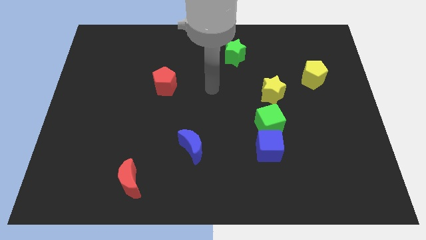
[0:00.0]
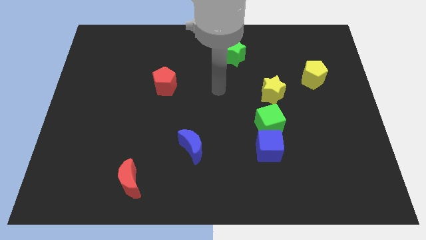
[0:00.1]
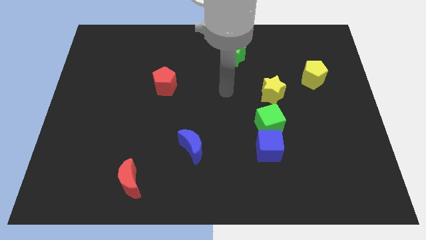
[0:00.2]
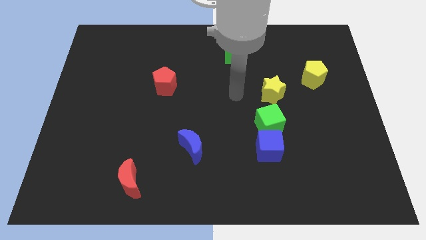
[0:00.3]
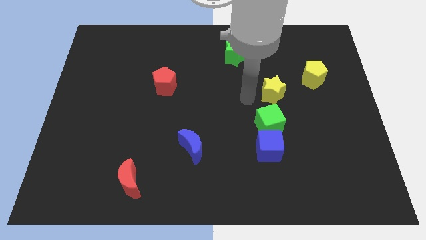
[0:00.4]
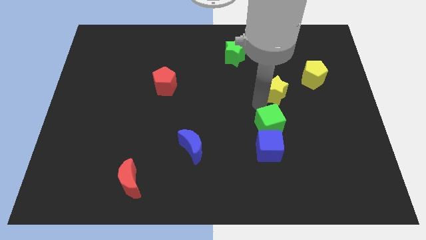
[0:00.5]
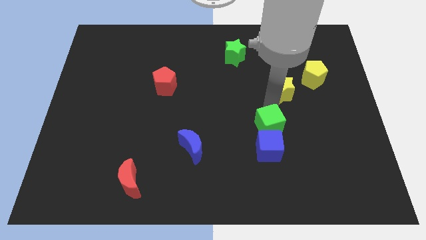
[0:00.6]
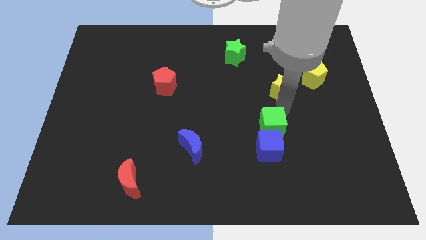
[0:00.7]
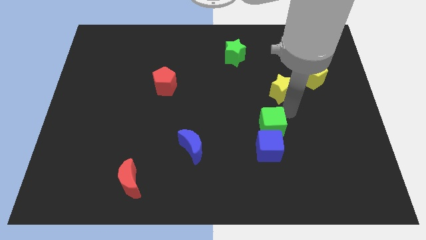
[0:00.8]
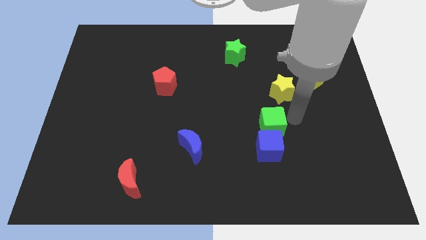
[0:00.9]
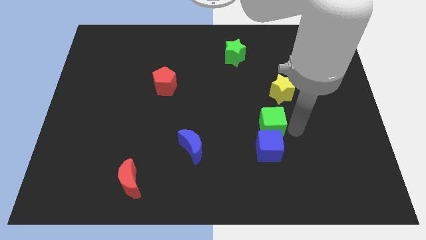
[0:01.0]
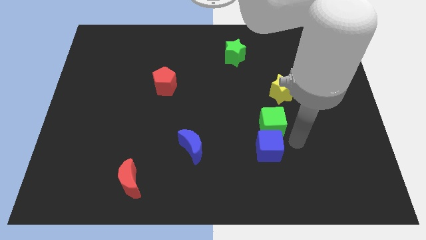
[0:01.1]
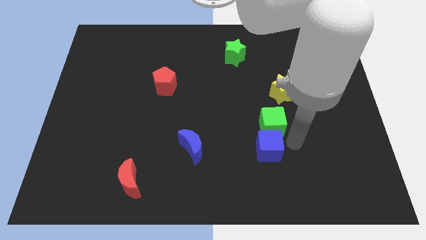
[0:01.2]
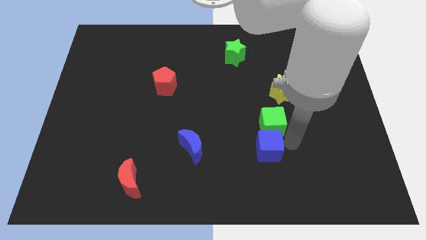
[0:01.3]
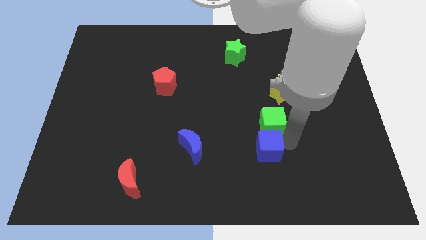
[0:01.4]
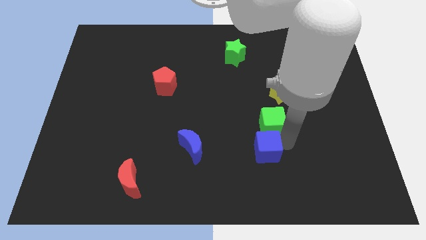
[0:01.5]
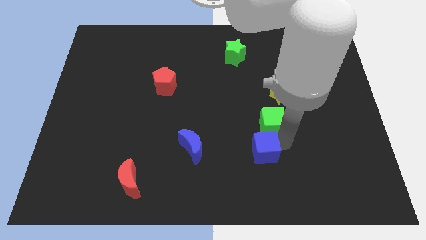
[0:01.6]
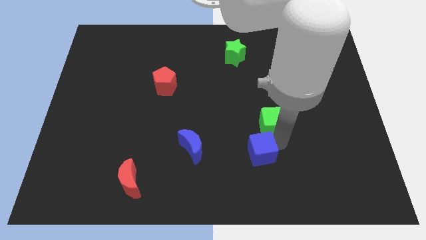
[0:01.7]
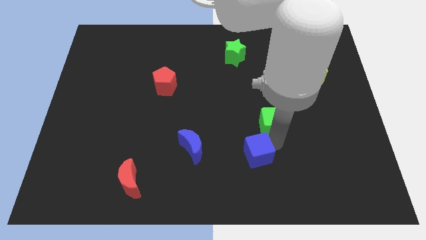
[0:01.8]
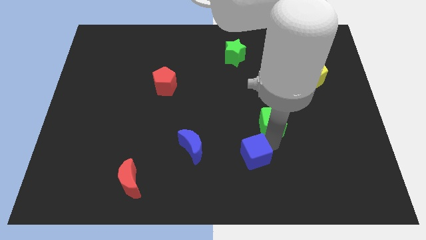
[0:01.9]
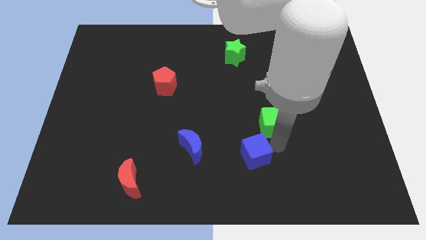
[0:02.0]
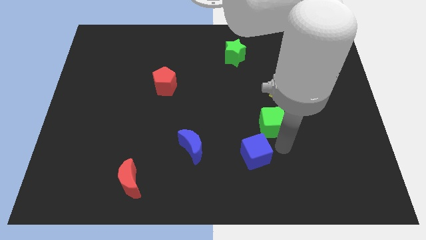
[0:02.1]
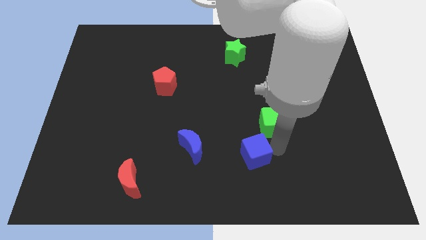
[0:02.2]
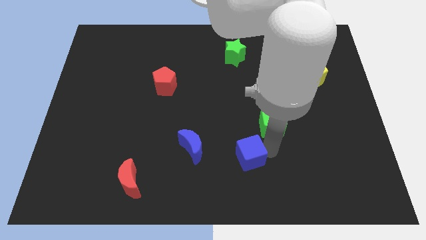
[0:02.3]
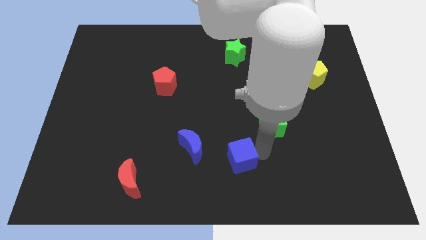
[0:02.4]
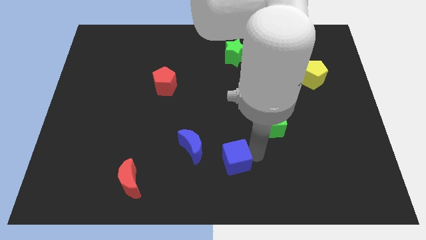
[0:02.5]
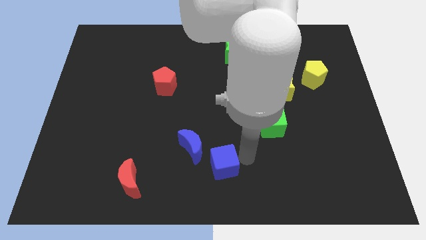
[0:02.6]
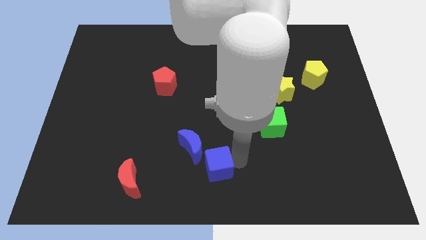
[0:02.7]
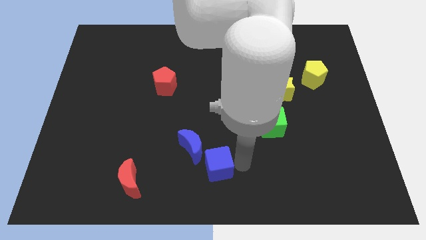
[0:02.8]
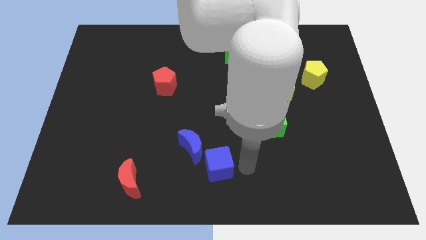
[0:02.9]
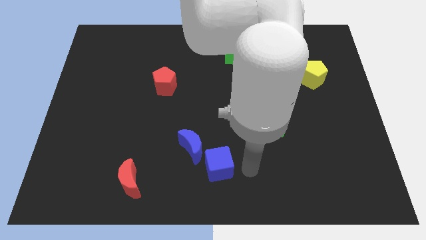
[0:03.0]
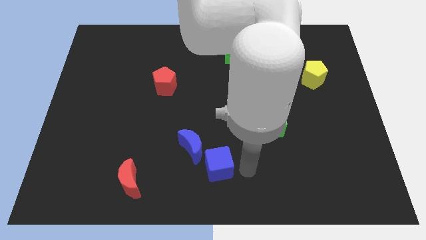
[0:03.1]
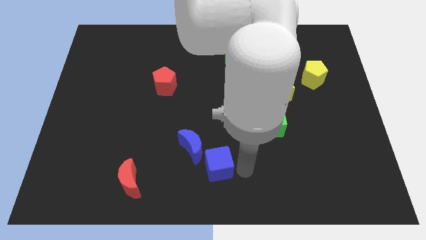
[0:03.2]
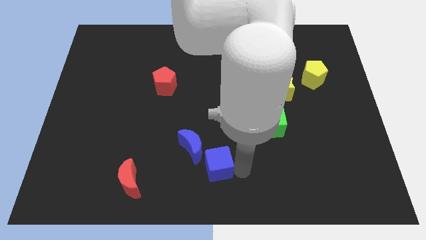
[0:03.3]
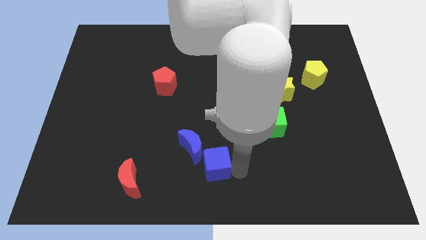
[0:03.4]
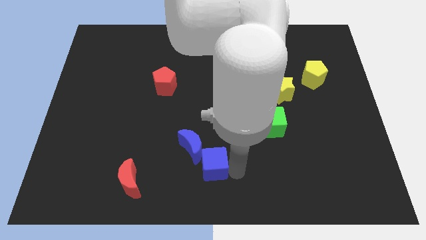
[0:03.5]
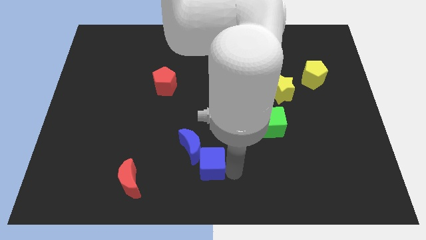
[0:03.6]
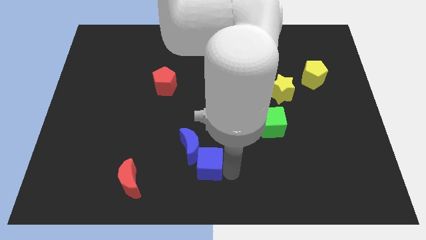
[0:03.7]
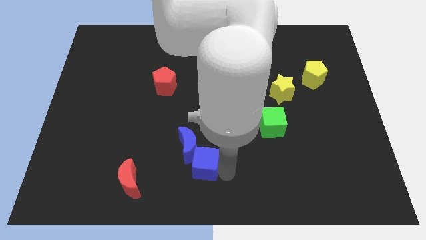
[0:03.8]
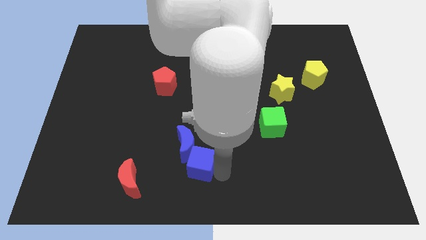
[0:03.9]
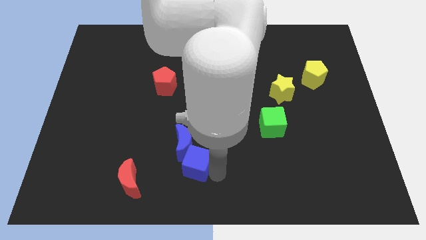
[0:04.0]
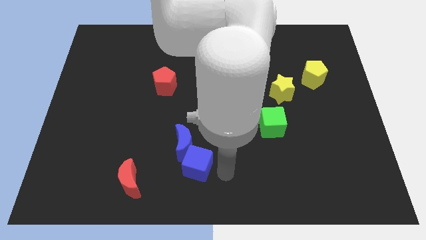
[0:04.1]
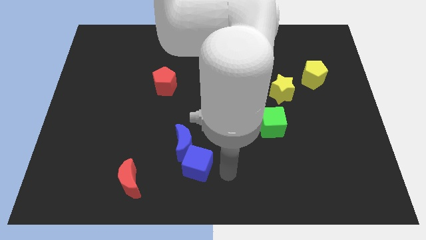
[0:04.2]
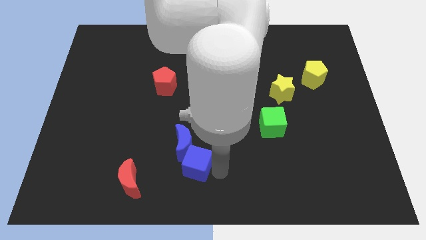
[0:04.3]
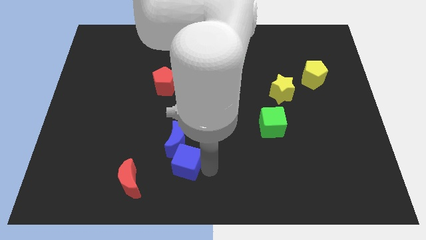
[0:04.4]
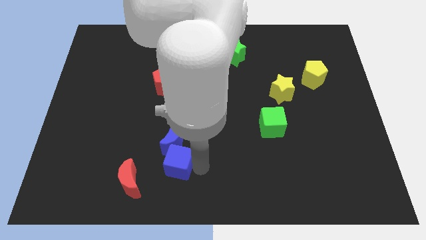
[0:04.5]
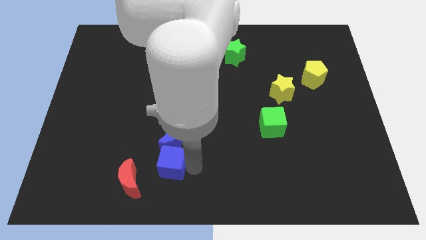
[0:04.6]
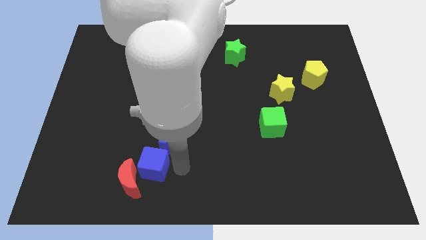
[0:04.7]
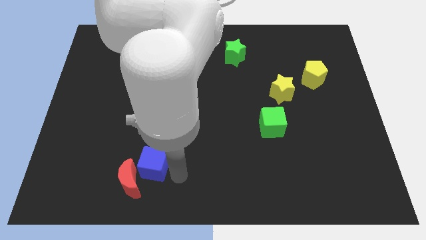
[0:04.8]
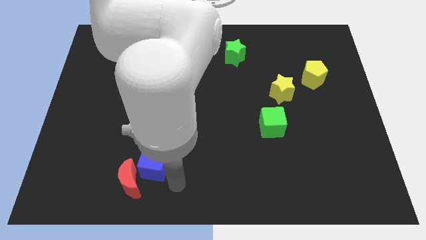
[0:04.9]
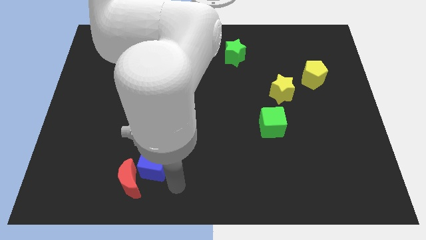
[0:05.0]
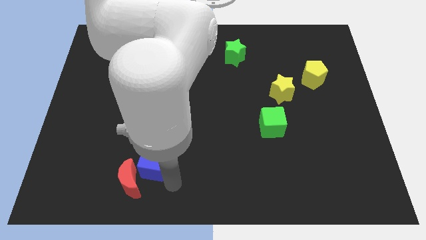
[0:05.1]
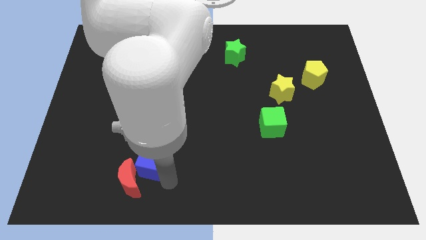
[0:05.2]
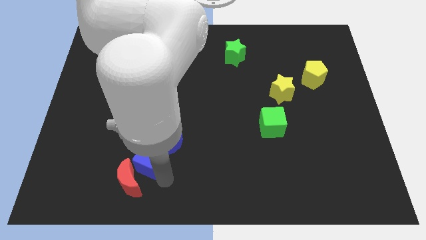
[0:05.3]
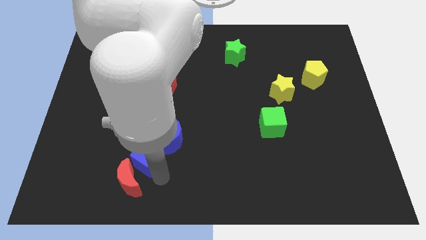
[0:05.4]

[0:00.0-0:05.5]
move the blue cube to the left side of the blue moon

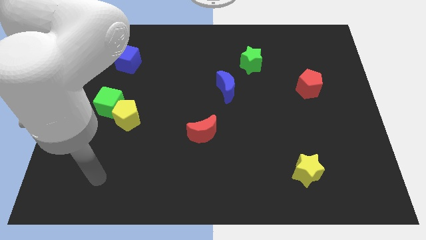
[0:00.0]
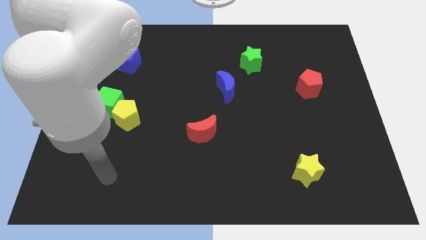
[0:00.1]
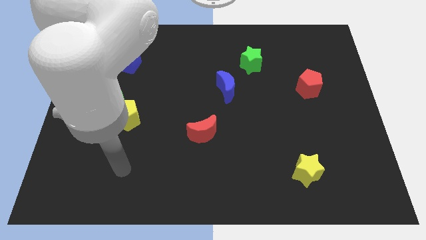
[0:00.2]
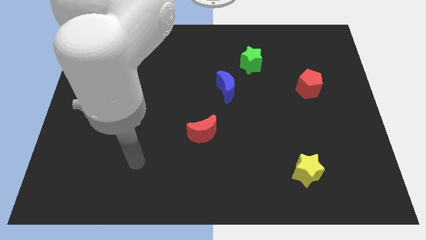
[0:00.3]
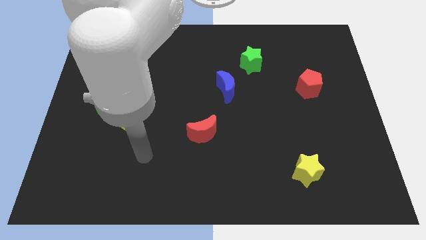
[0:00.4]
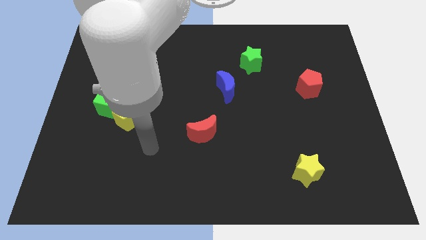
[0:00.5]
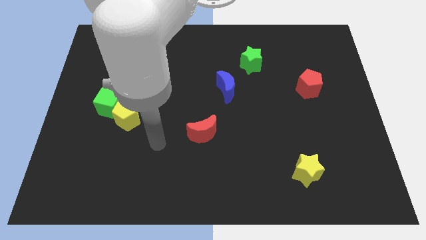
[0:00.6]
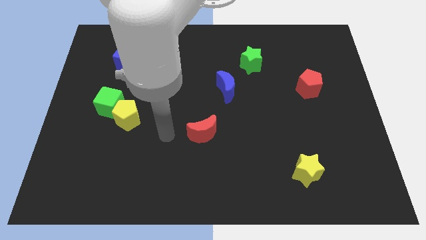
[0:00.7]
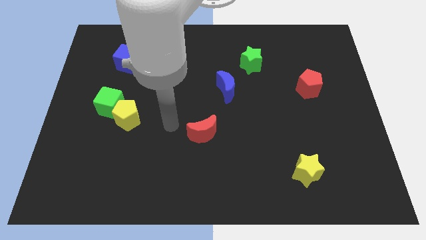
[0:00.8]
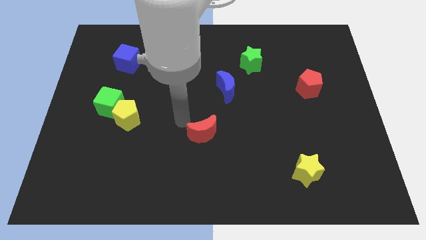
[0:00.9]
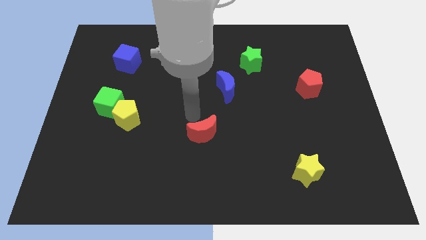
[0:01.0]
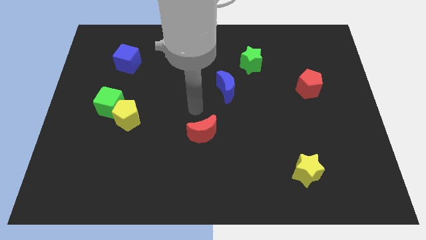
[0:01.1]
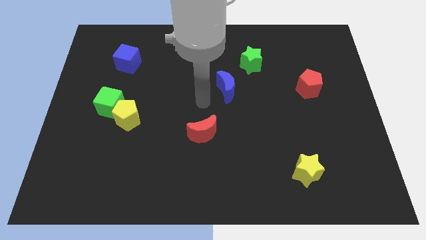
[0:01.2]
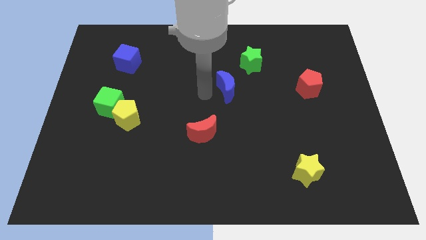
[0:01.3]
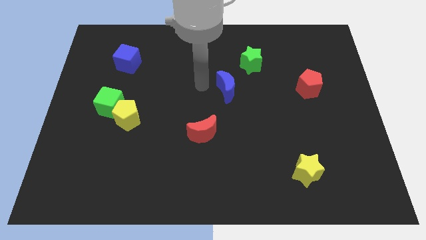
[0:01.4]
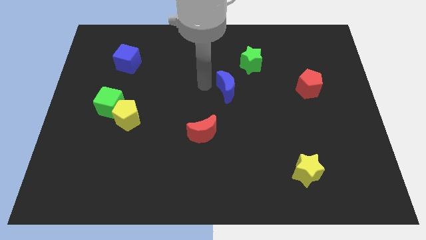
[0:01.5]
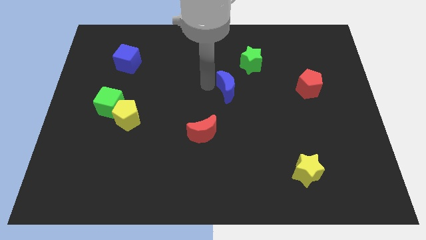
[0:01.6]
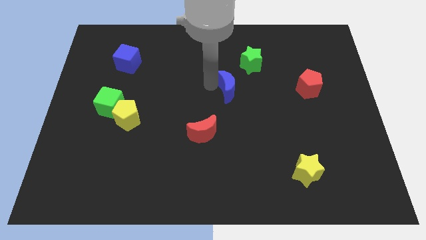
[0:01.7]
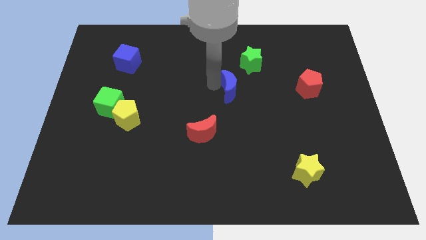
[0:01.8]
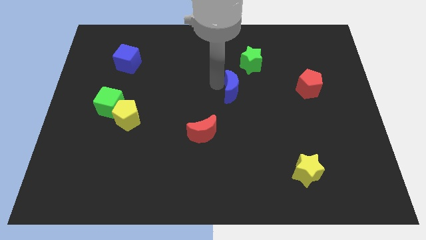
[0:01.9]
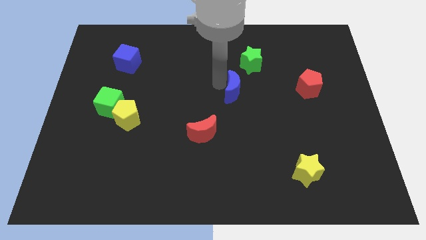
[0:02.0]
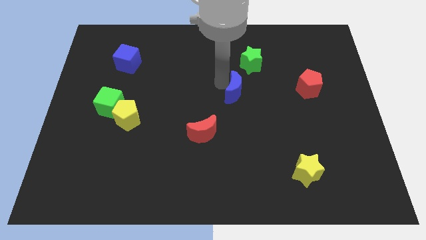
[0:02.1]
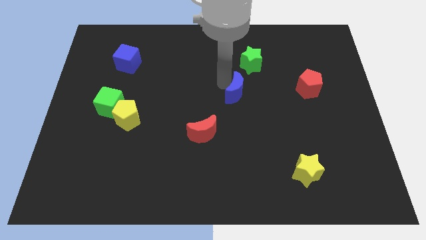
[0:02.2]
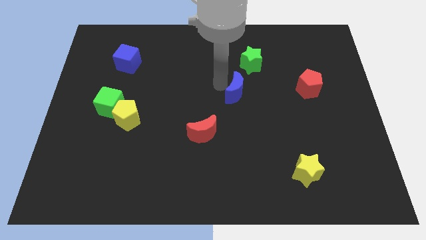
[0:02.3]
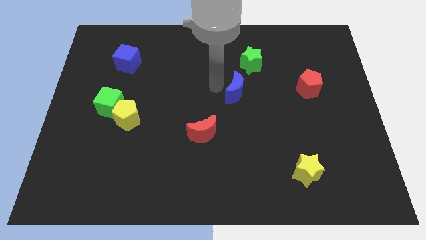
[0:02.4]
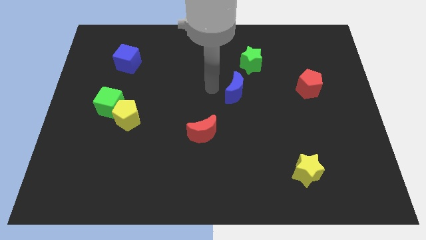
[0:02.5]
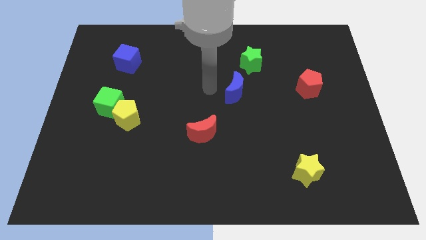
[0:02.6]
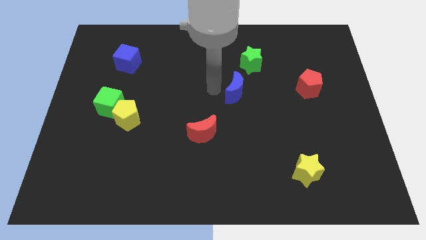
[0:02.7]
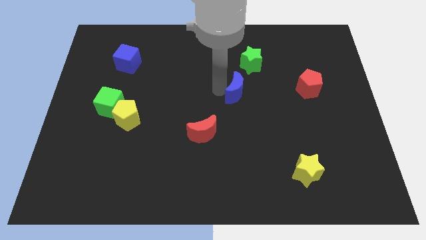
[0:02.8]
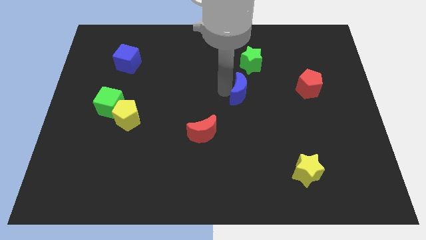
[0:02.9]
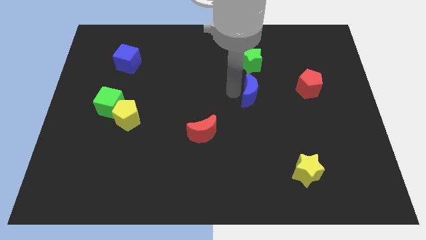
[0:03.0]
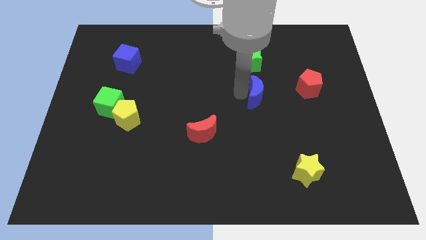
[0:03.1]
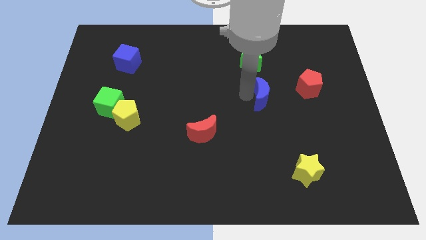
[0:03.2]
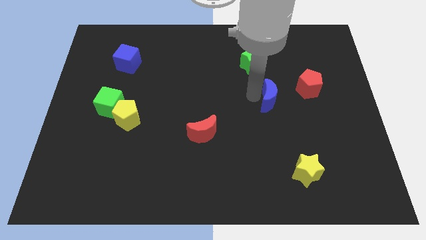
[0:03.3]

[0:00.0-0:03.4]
put the blue moon diagonally down and to the left of the red pentagon
